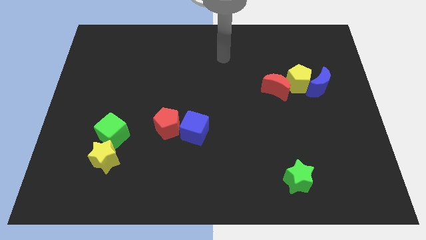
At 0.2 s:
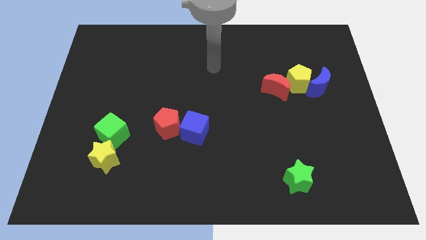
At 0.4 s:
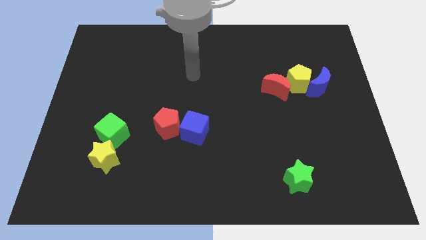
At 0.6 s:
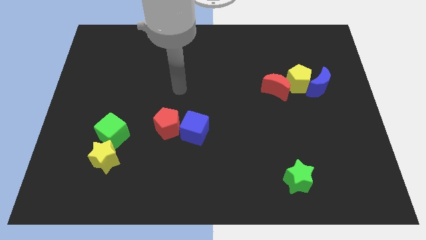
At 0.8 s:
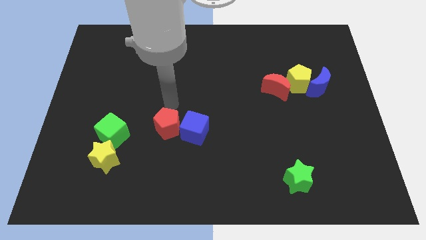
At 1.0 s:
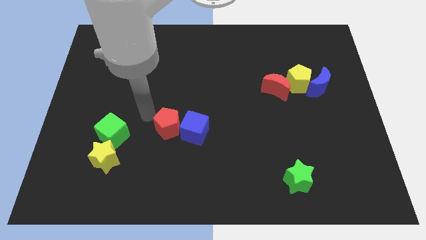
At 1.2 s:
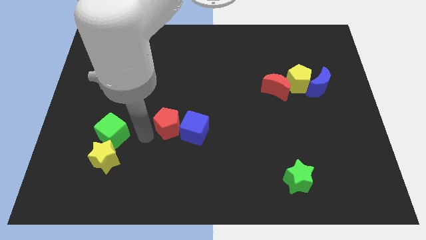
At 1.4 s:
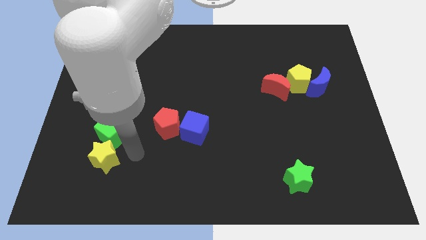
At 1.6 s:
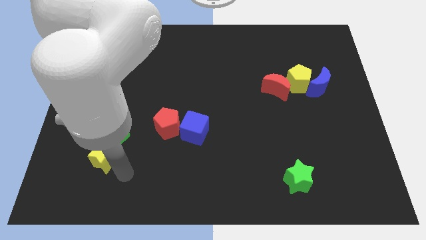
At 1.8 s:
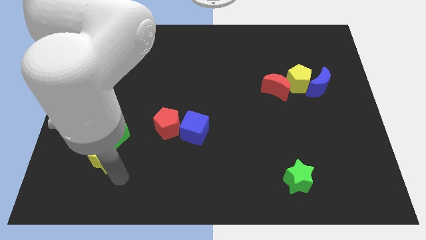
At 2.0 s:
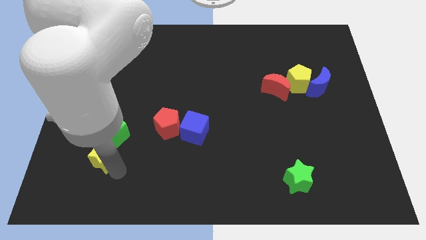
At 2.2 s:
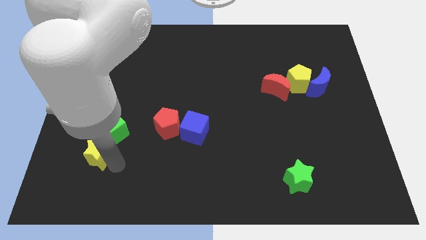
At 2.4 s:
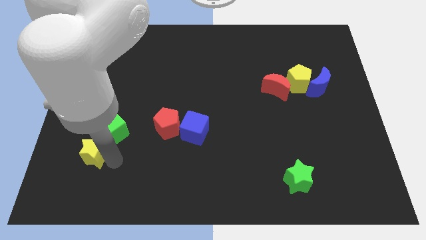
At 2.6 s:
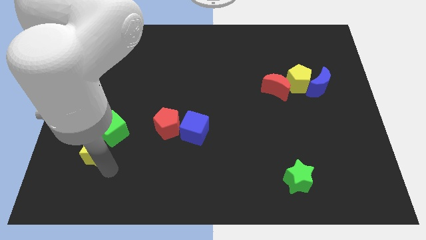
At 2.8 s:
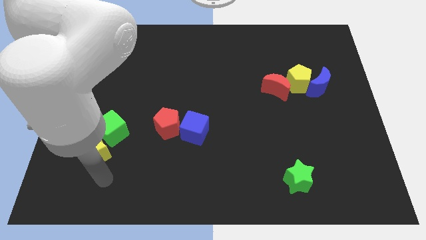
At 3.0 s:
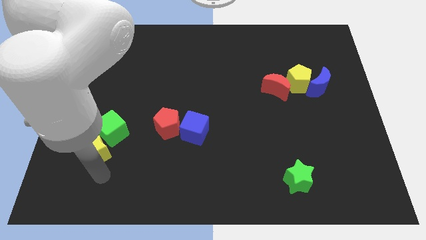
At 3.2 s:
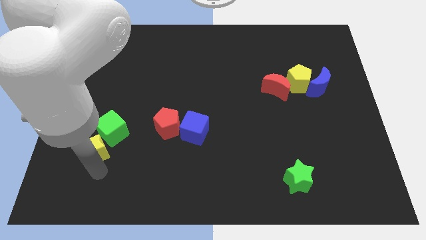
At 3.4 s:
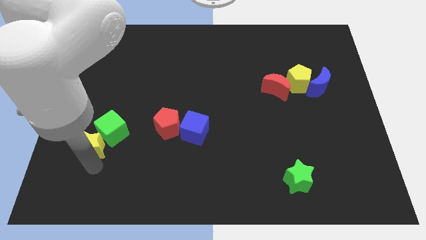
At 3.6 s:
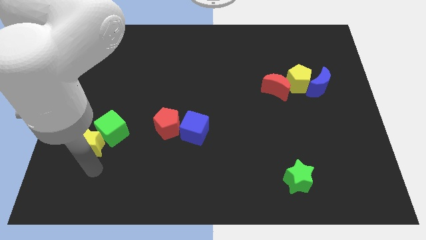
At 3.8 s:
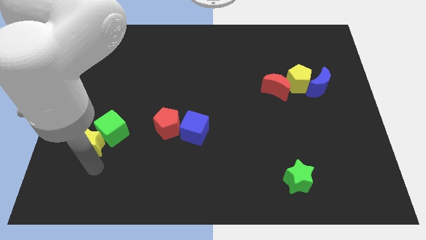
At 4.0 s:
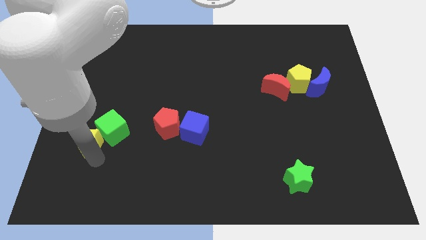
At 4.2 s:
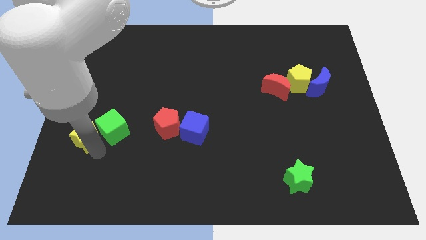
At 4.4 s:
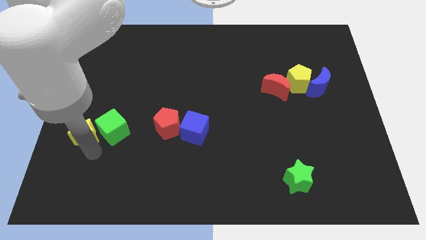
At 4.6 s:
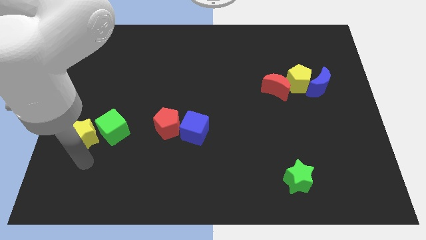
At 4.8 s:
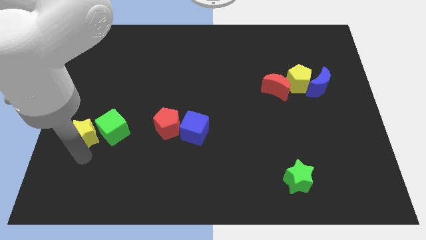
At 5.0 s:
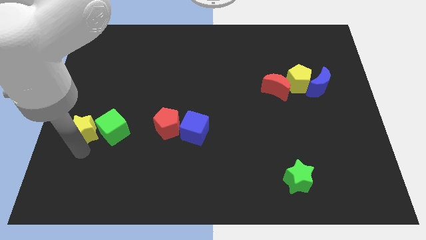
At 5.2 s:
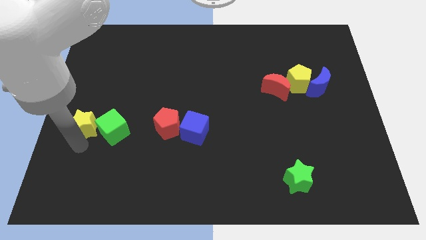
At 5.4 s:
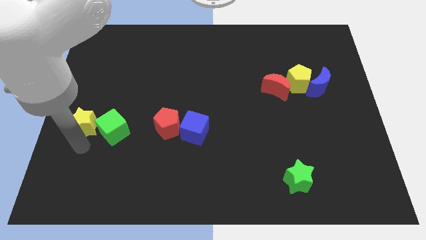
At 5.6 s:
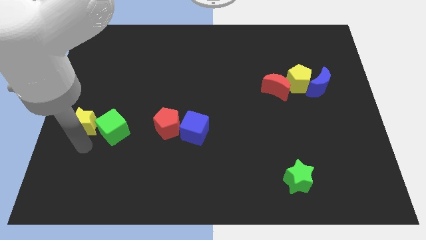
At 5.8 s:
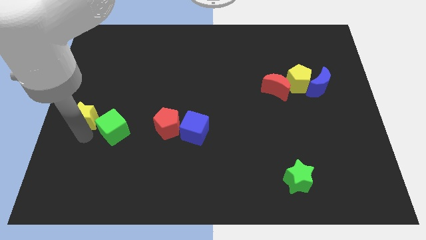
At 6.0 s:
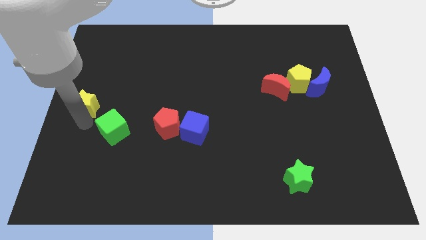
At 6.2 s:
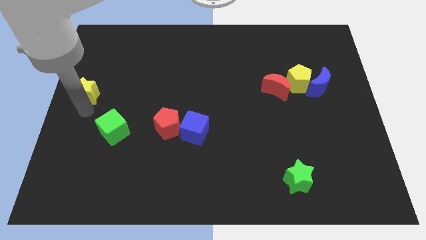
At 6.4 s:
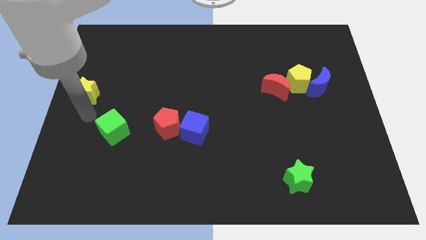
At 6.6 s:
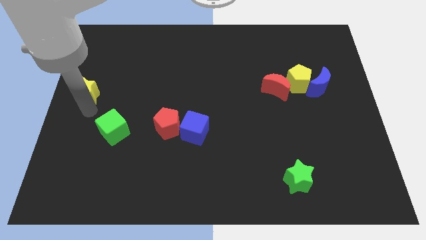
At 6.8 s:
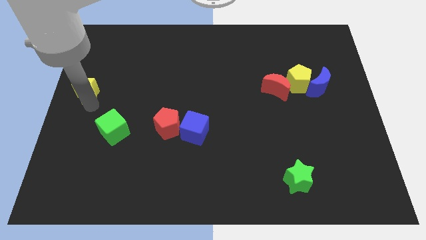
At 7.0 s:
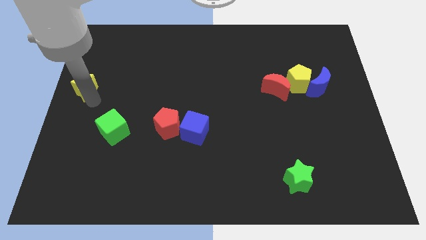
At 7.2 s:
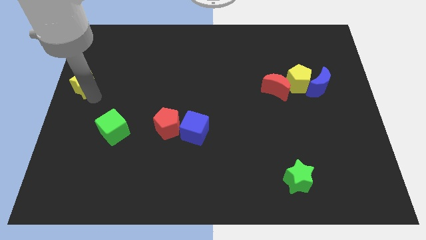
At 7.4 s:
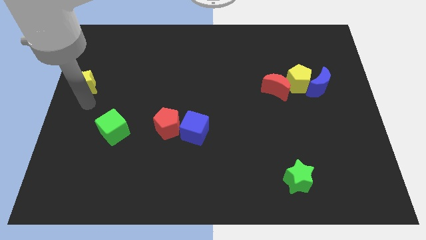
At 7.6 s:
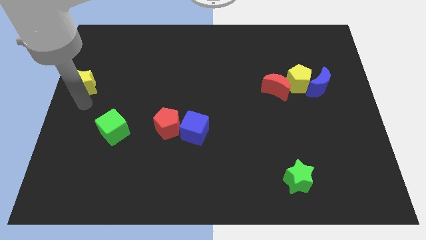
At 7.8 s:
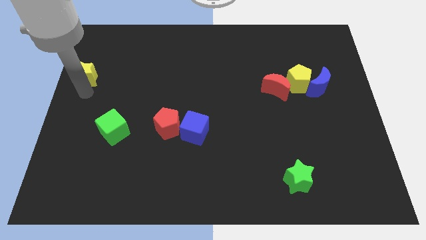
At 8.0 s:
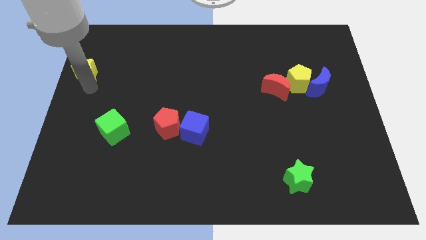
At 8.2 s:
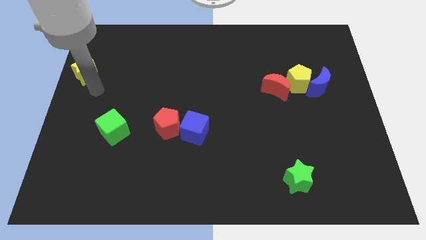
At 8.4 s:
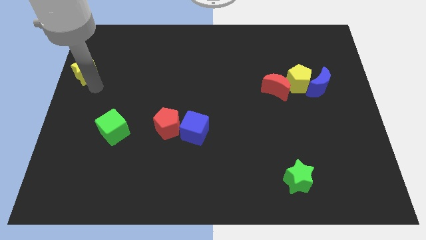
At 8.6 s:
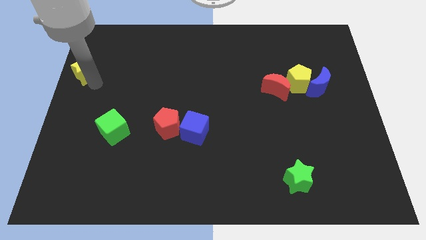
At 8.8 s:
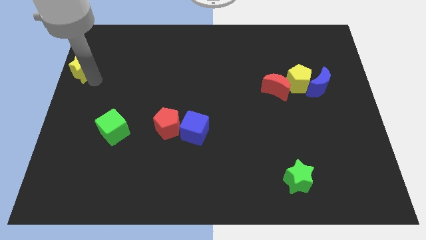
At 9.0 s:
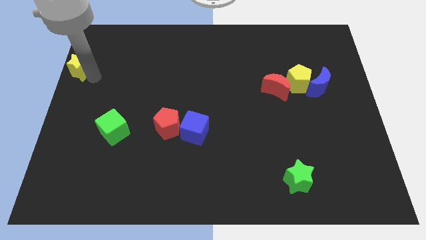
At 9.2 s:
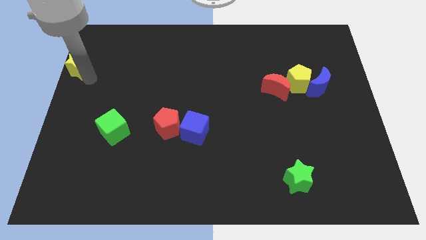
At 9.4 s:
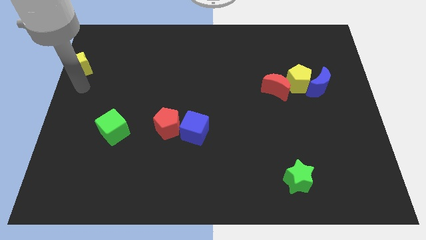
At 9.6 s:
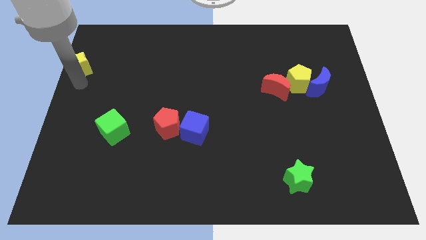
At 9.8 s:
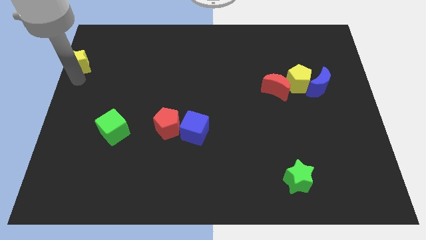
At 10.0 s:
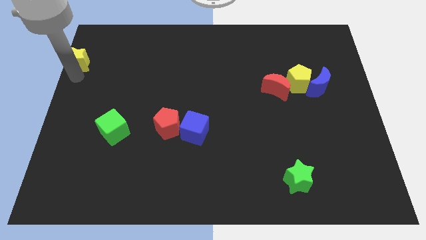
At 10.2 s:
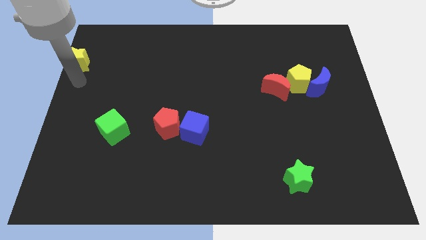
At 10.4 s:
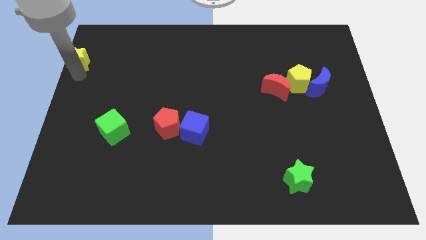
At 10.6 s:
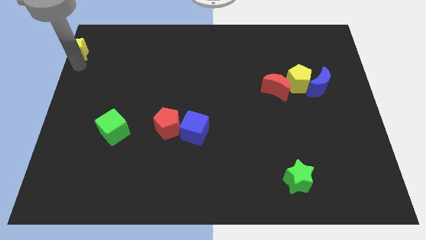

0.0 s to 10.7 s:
put the yellow star to the top left corner
